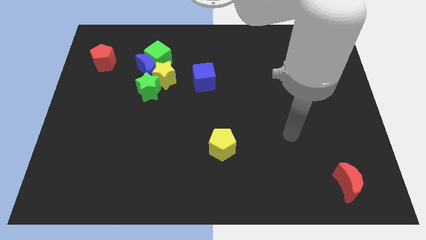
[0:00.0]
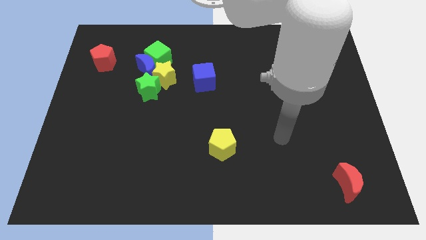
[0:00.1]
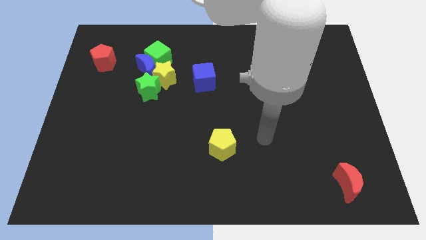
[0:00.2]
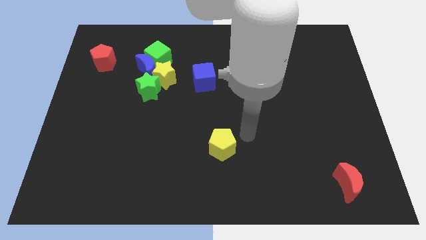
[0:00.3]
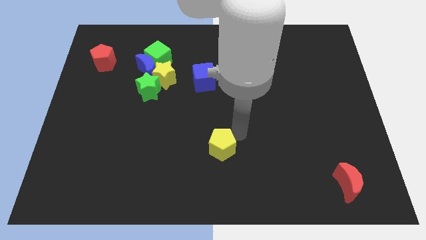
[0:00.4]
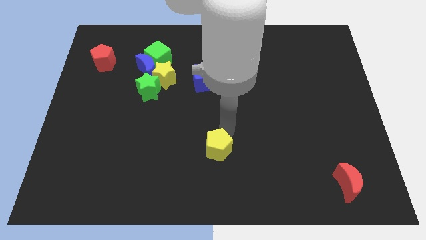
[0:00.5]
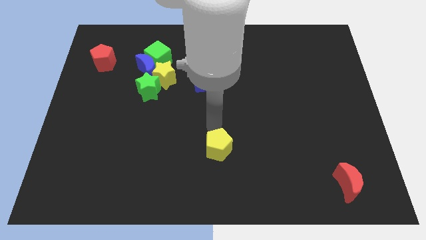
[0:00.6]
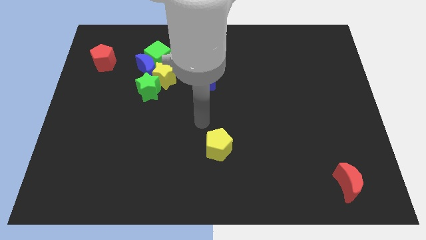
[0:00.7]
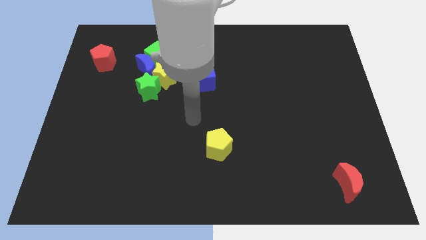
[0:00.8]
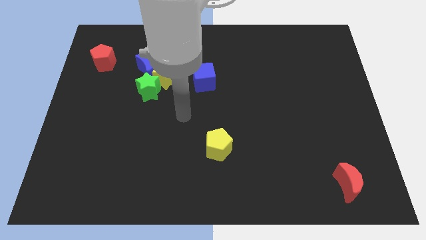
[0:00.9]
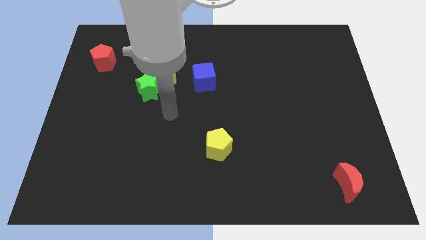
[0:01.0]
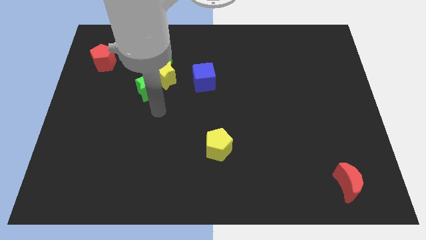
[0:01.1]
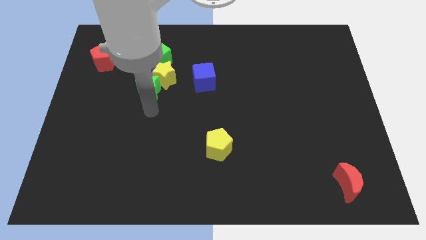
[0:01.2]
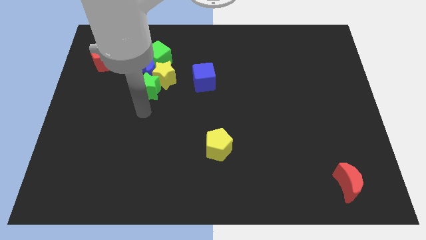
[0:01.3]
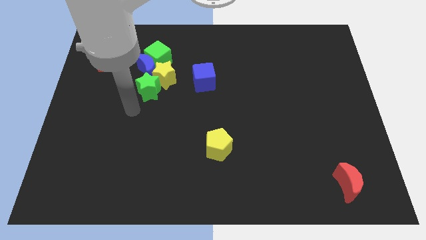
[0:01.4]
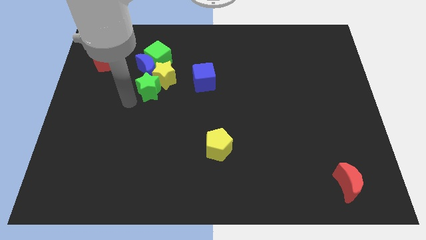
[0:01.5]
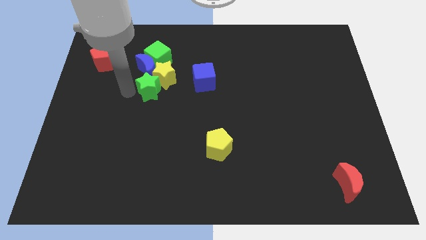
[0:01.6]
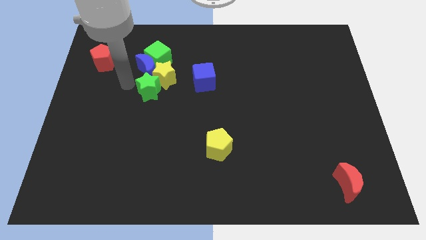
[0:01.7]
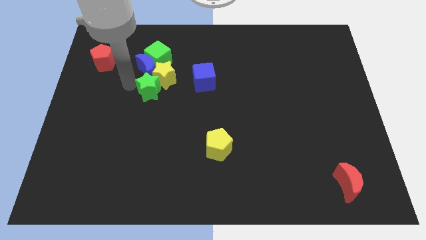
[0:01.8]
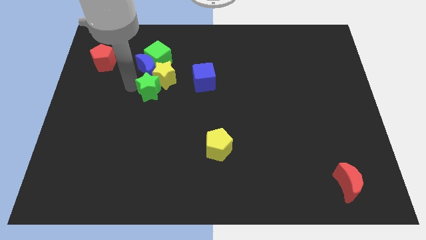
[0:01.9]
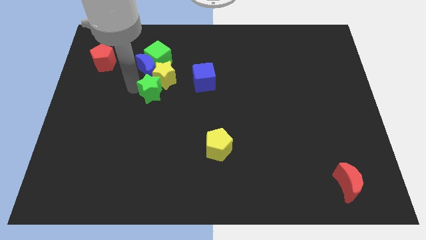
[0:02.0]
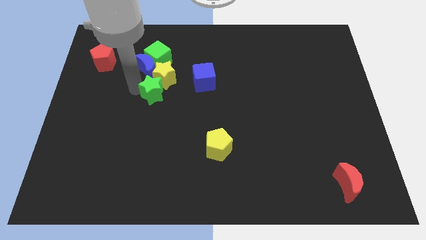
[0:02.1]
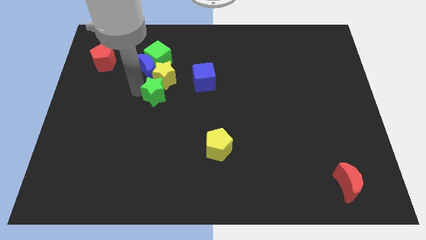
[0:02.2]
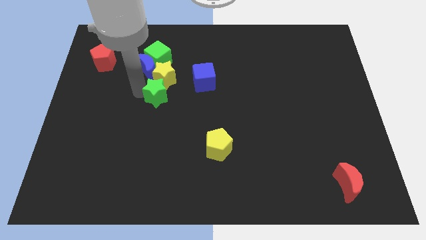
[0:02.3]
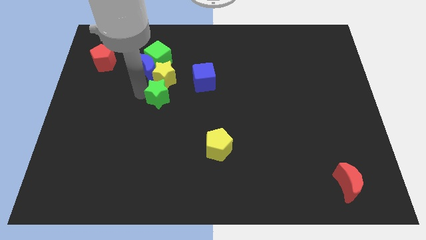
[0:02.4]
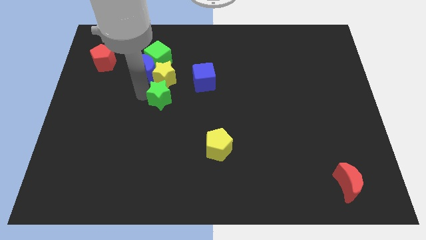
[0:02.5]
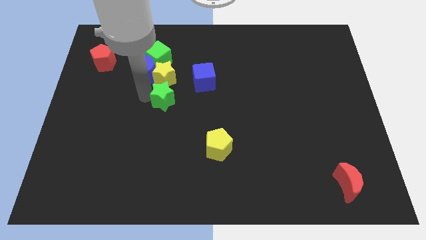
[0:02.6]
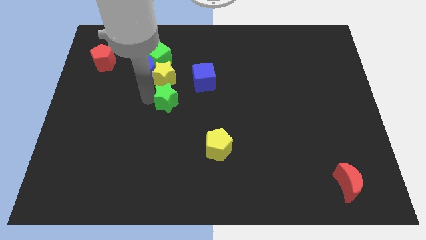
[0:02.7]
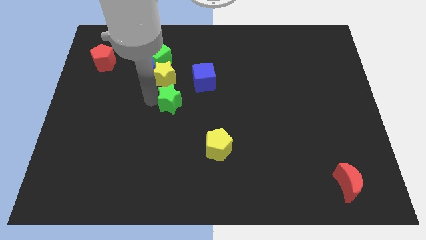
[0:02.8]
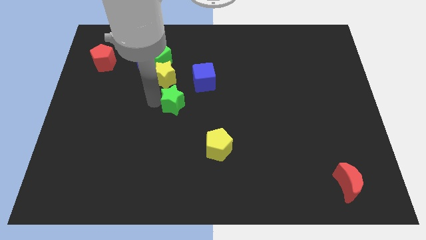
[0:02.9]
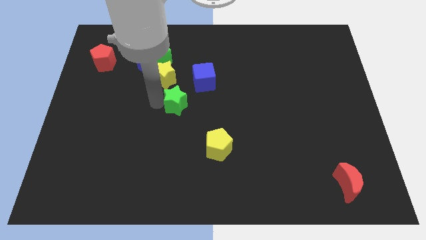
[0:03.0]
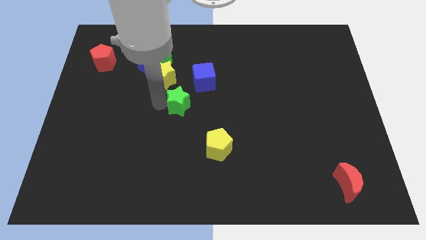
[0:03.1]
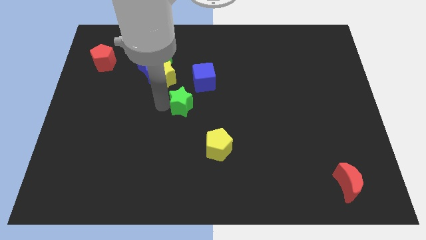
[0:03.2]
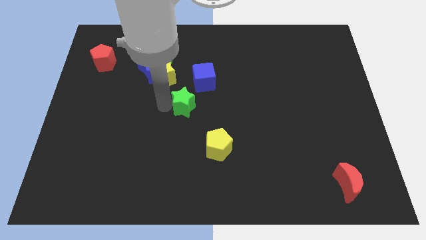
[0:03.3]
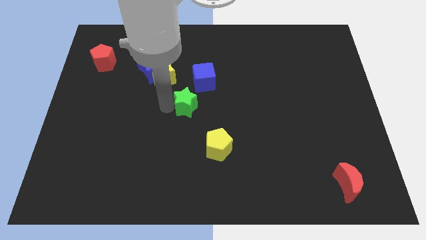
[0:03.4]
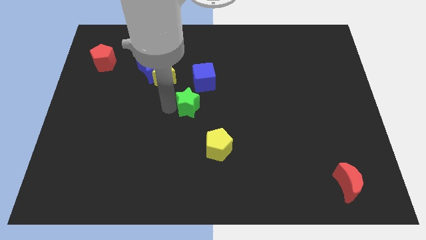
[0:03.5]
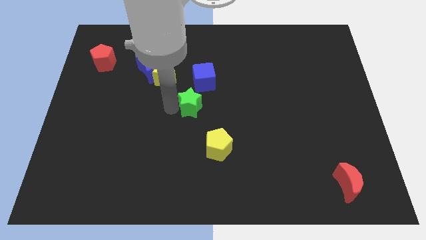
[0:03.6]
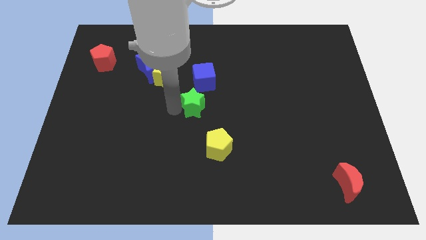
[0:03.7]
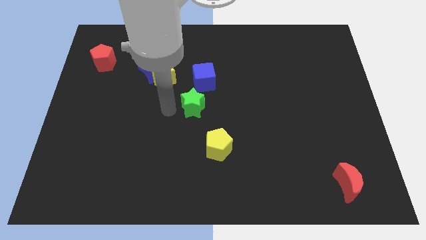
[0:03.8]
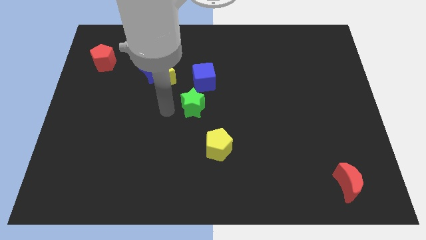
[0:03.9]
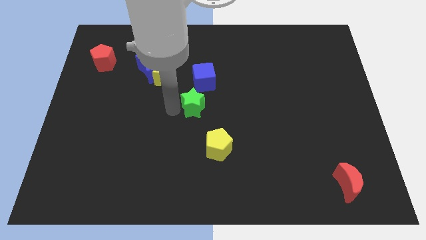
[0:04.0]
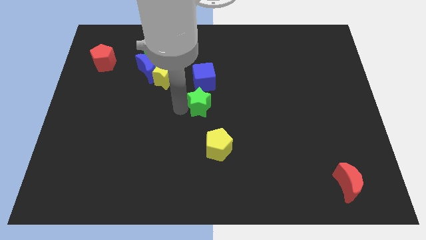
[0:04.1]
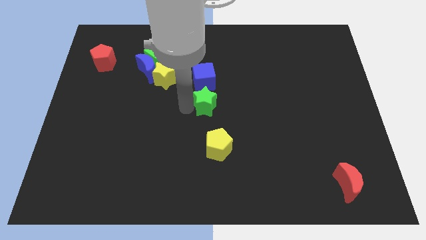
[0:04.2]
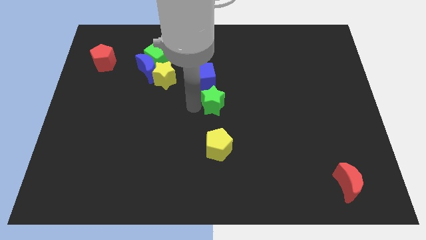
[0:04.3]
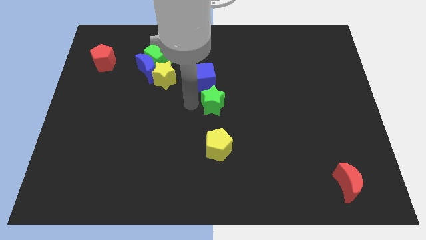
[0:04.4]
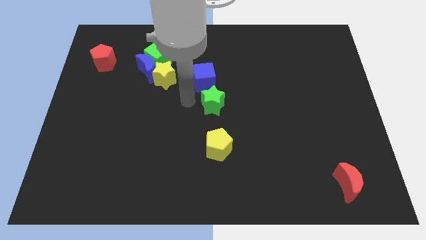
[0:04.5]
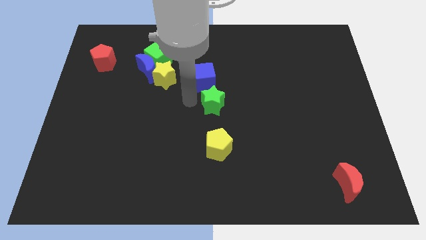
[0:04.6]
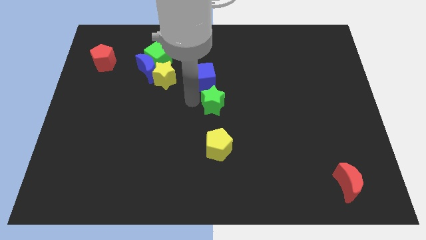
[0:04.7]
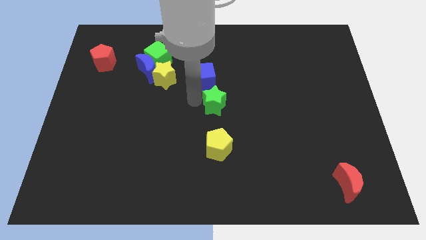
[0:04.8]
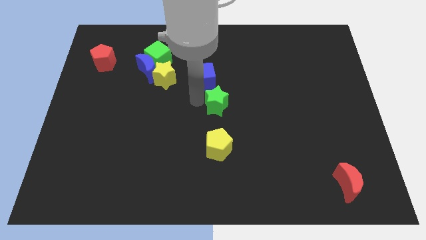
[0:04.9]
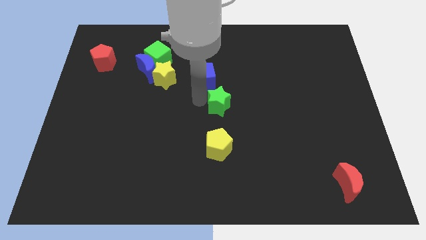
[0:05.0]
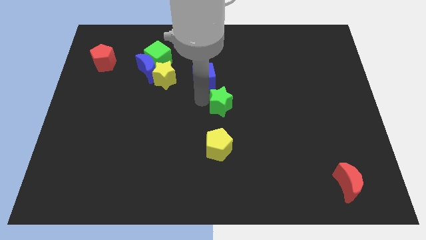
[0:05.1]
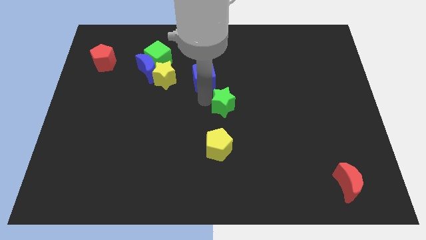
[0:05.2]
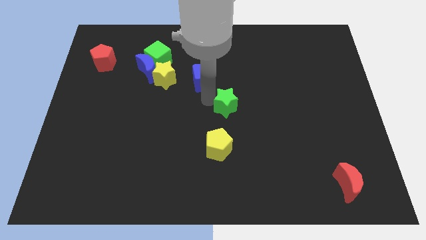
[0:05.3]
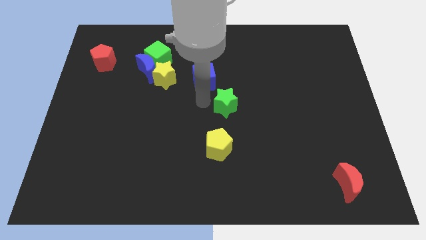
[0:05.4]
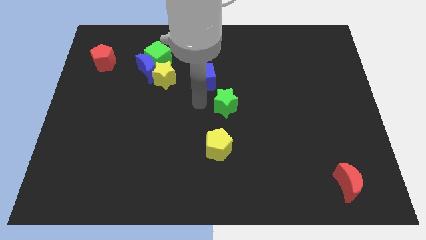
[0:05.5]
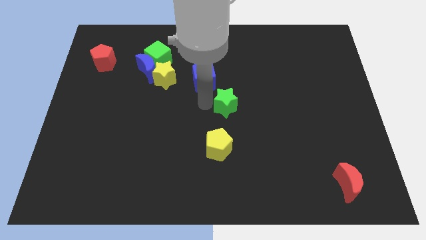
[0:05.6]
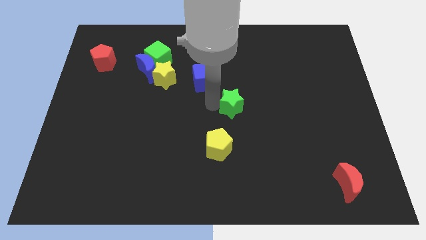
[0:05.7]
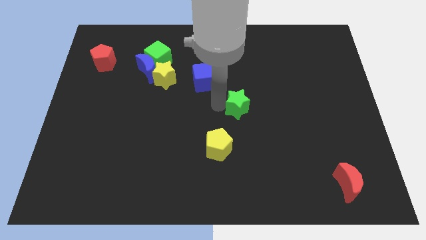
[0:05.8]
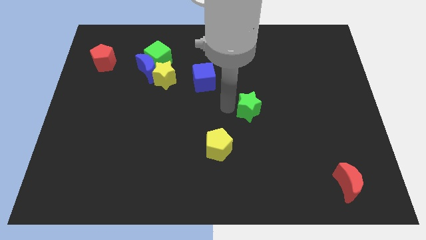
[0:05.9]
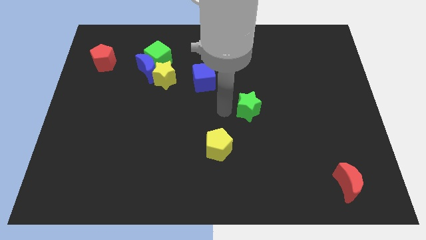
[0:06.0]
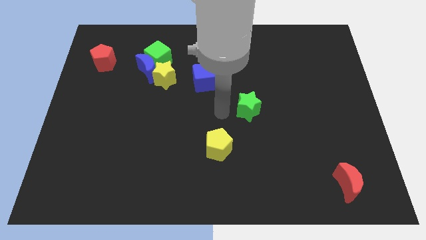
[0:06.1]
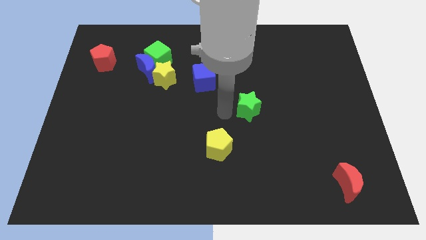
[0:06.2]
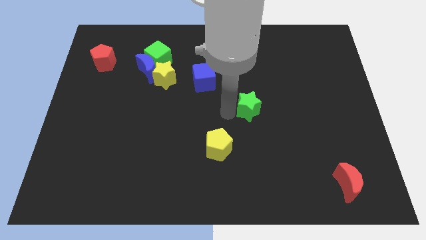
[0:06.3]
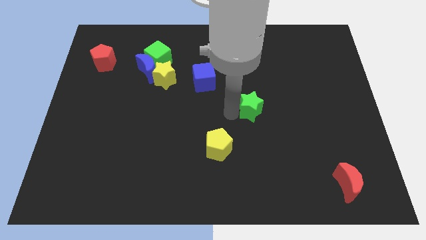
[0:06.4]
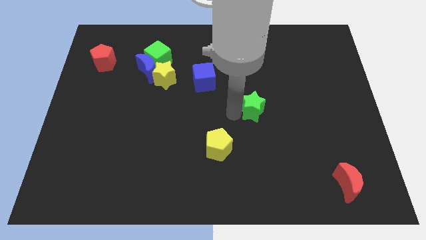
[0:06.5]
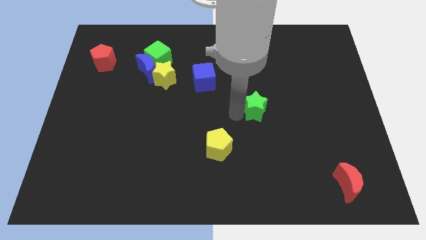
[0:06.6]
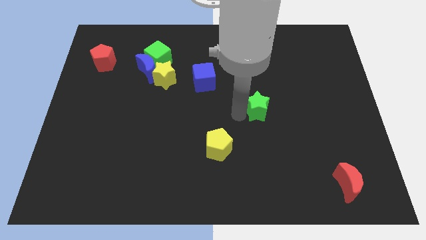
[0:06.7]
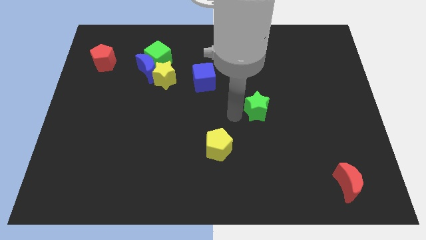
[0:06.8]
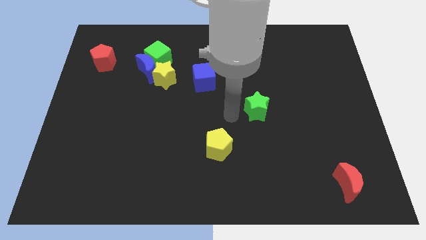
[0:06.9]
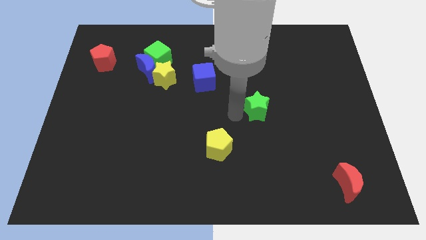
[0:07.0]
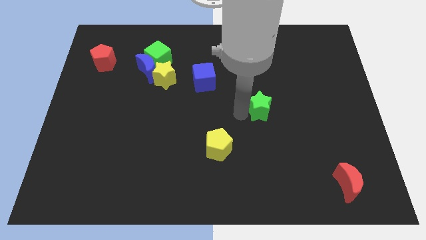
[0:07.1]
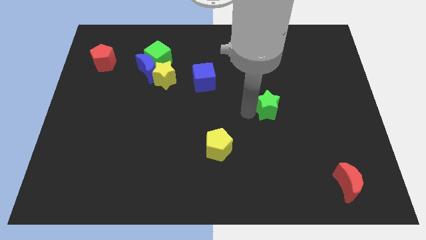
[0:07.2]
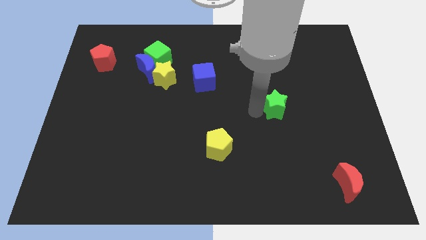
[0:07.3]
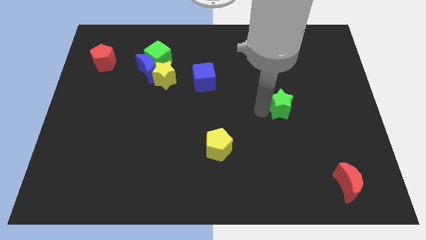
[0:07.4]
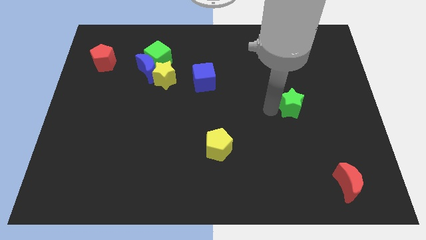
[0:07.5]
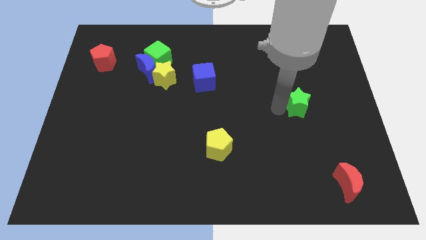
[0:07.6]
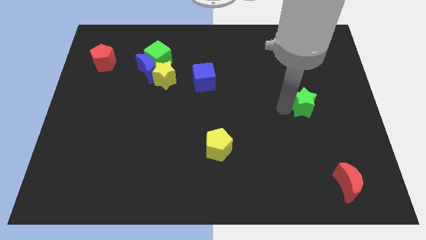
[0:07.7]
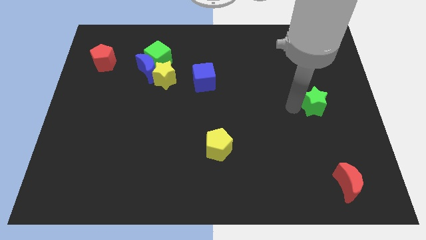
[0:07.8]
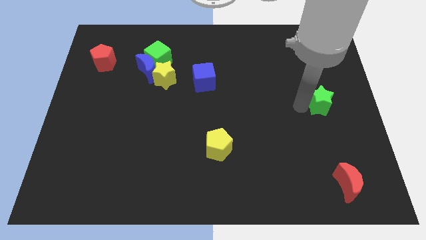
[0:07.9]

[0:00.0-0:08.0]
move the green star to the right side
